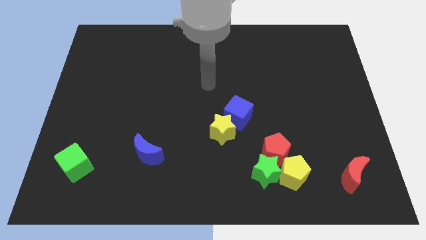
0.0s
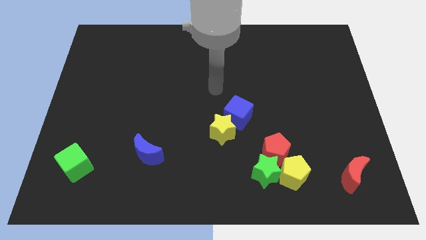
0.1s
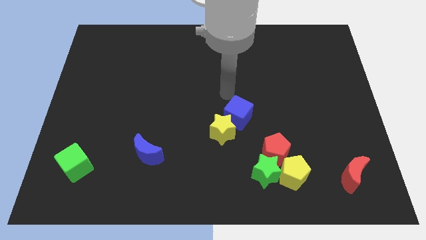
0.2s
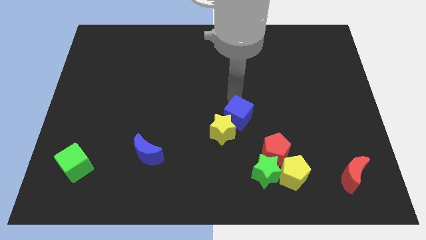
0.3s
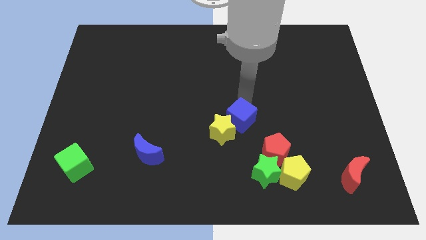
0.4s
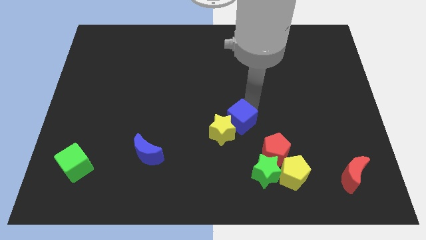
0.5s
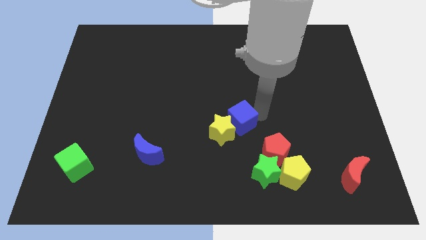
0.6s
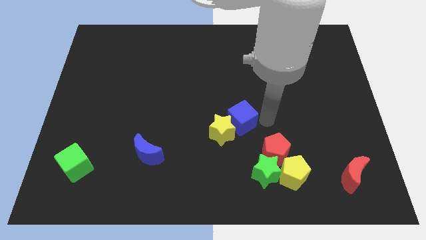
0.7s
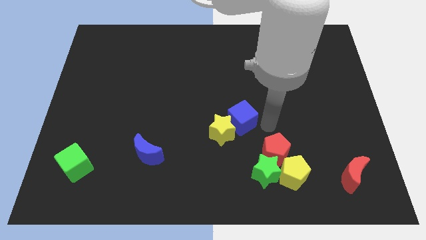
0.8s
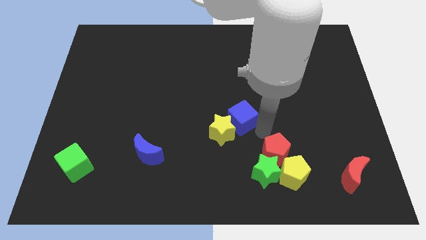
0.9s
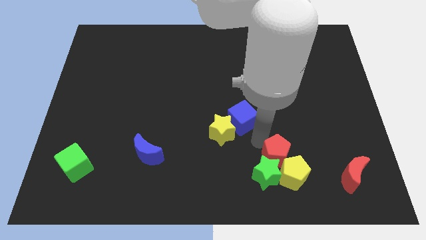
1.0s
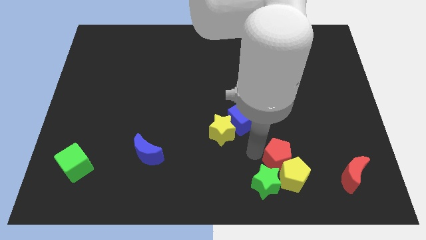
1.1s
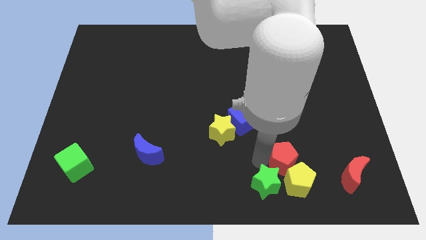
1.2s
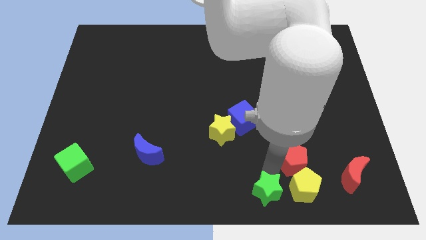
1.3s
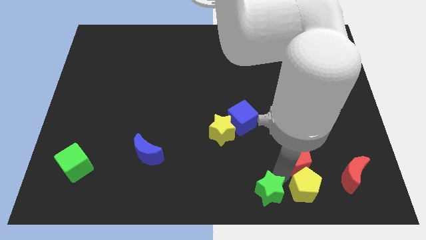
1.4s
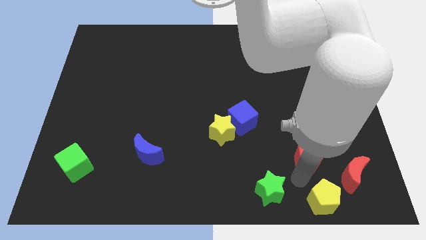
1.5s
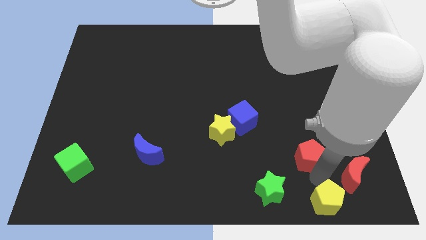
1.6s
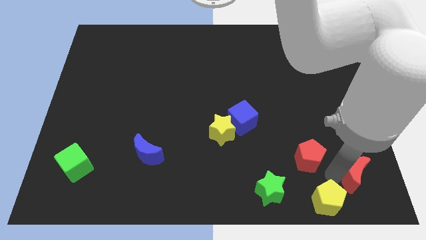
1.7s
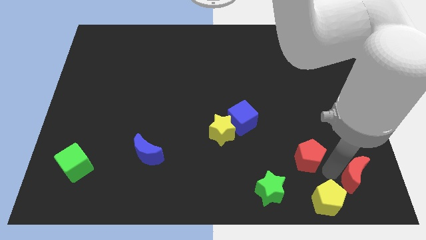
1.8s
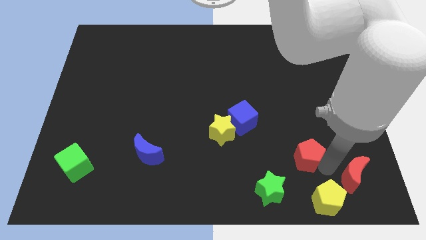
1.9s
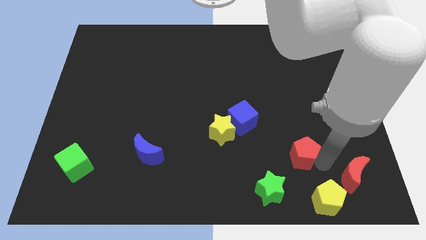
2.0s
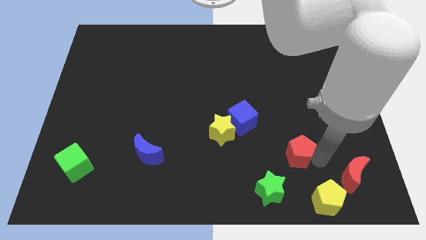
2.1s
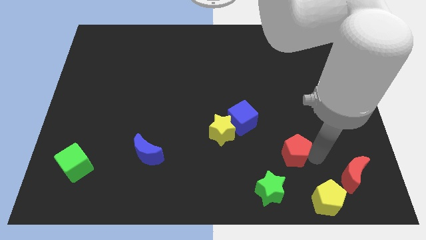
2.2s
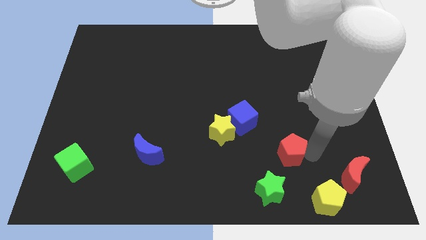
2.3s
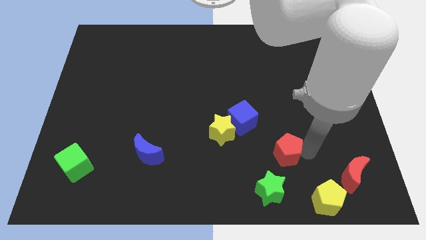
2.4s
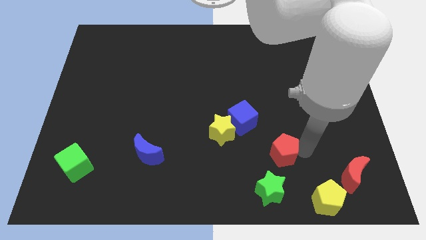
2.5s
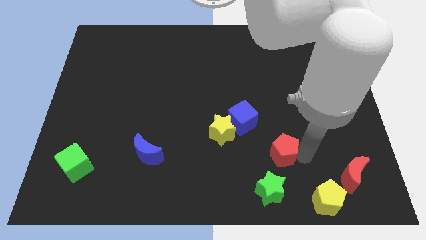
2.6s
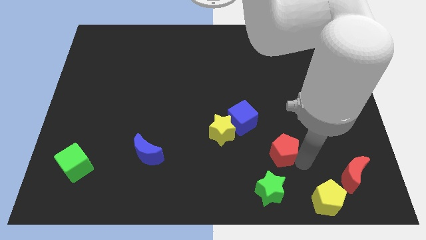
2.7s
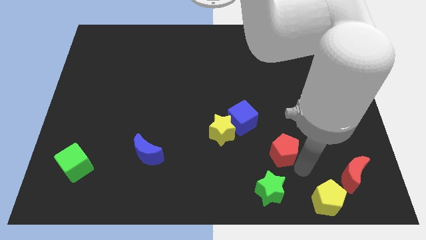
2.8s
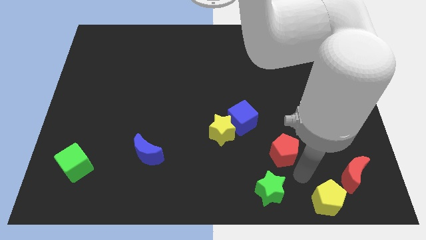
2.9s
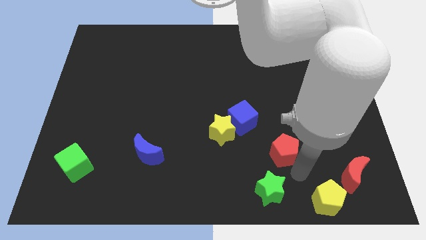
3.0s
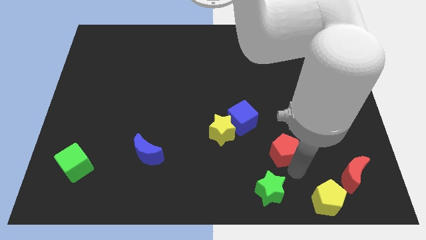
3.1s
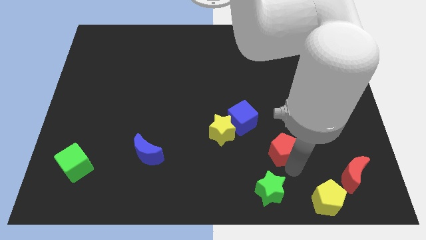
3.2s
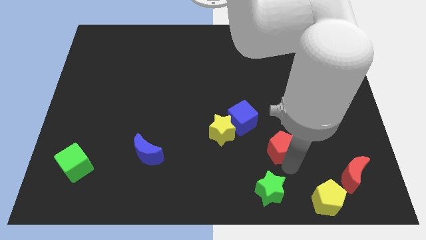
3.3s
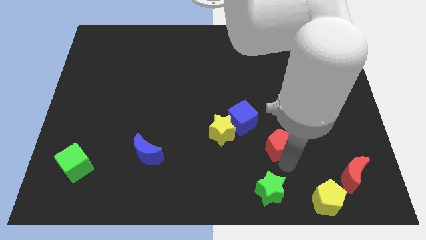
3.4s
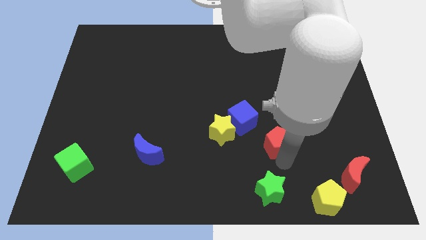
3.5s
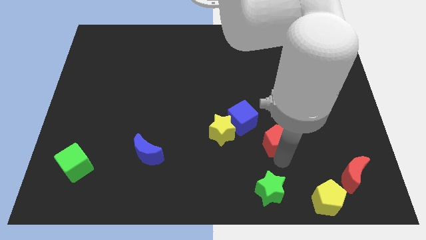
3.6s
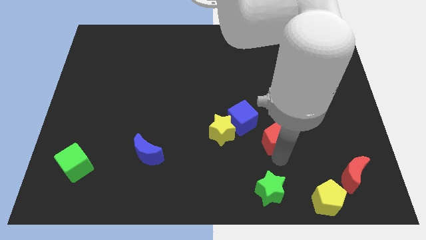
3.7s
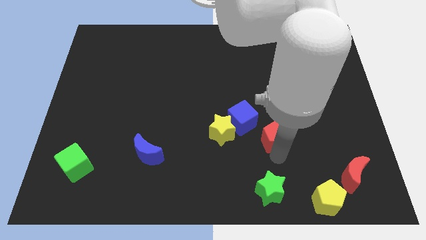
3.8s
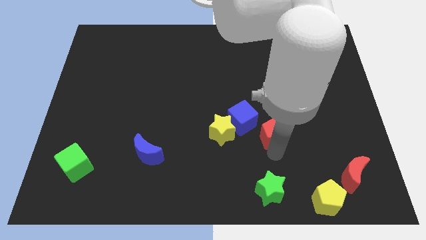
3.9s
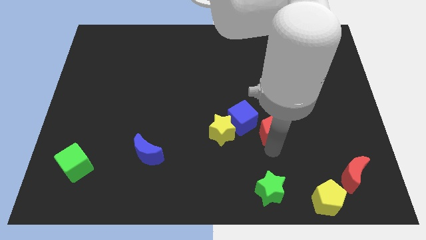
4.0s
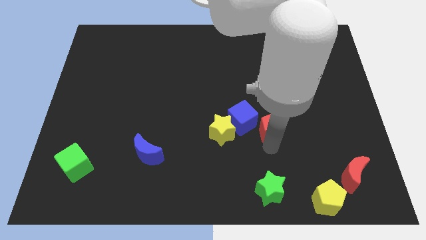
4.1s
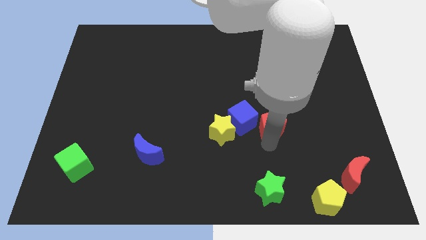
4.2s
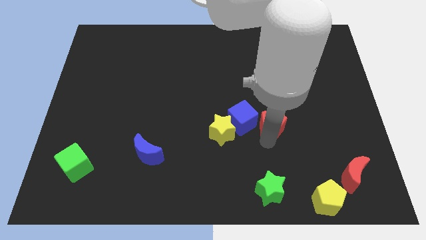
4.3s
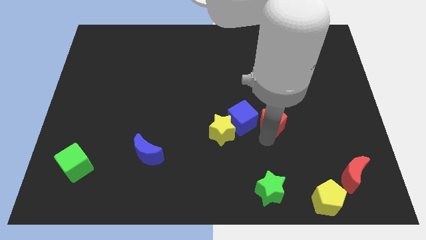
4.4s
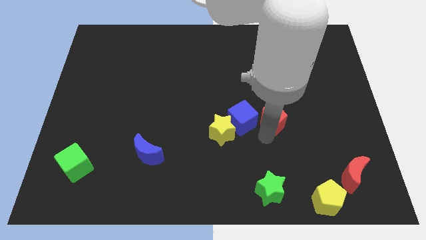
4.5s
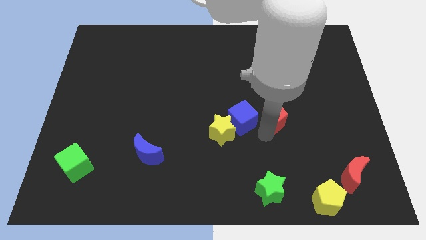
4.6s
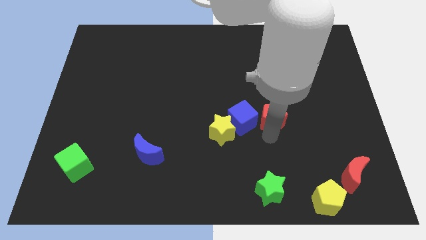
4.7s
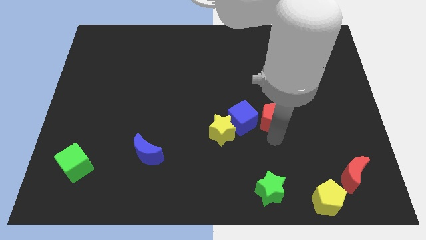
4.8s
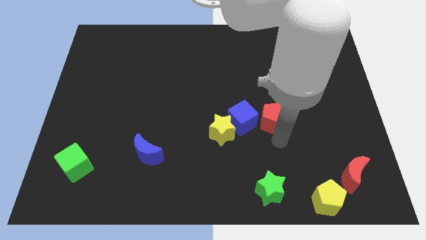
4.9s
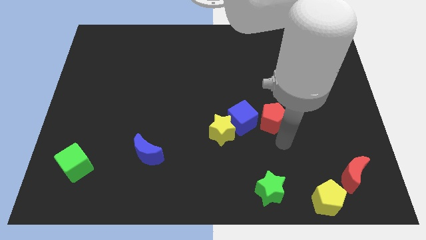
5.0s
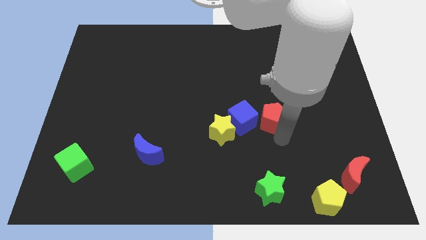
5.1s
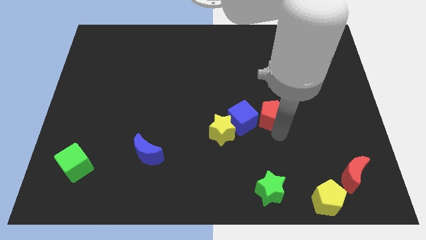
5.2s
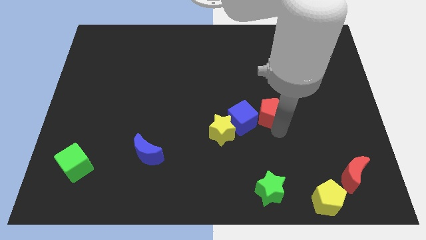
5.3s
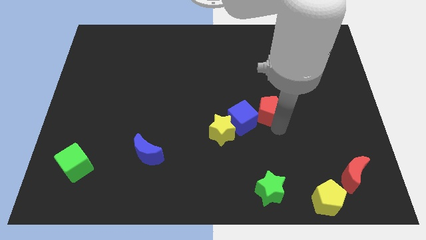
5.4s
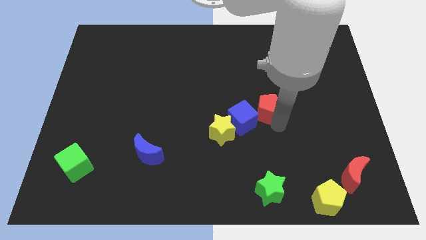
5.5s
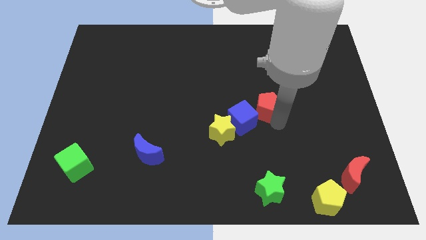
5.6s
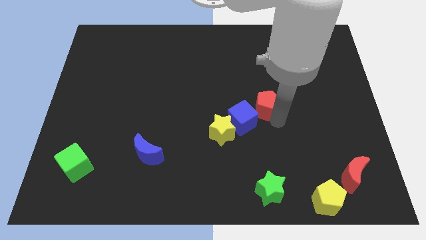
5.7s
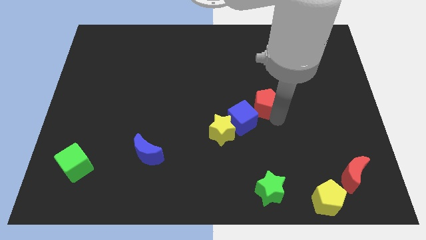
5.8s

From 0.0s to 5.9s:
push the red pentagon a little upwards and then to the left

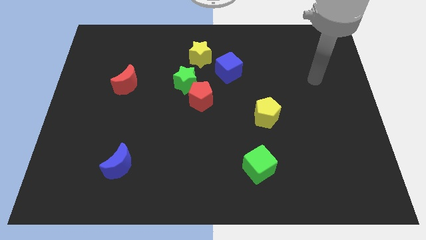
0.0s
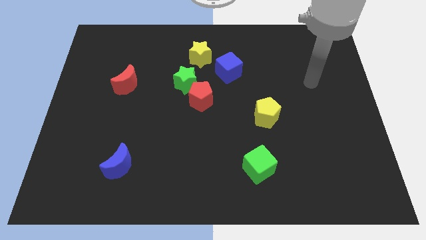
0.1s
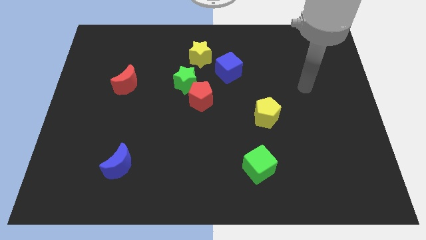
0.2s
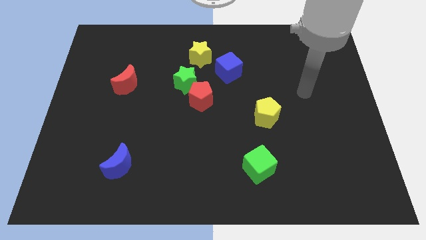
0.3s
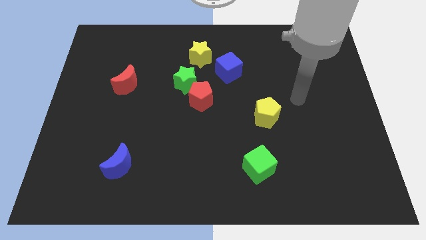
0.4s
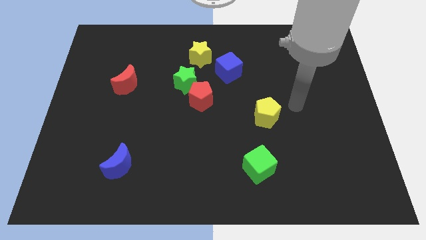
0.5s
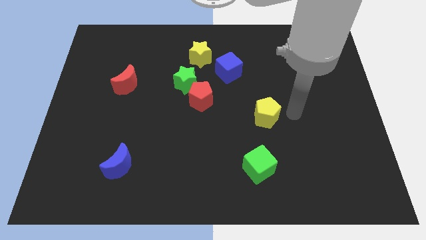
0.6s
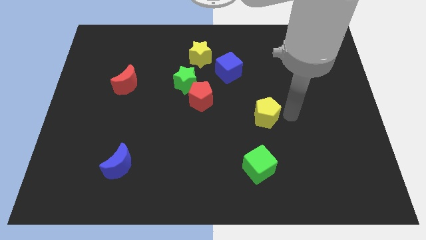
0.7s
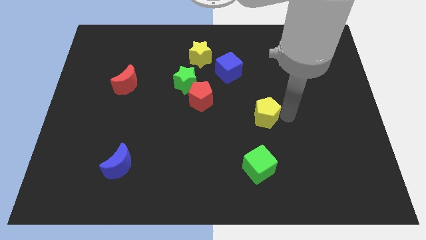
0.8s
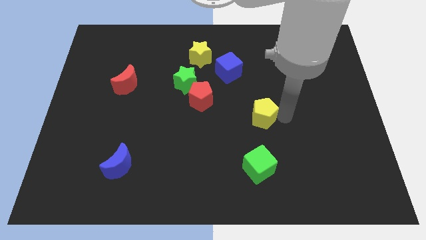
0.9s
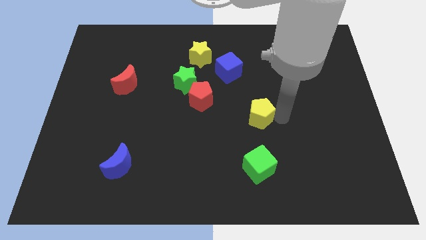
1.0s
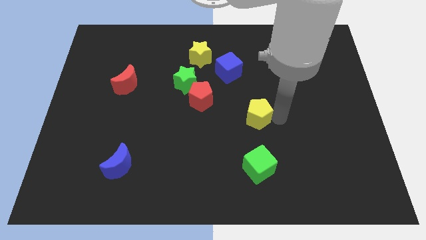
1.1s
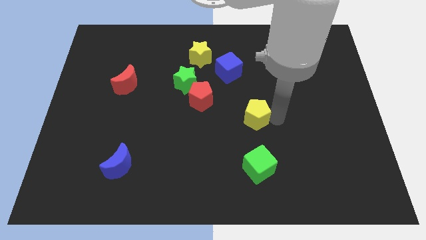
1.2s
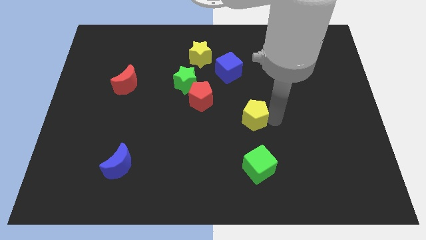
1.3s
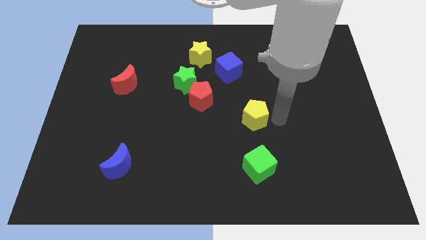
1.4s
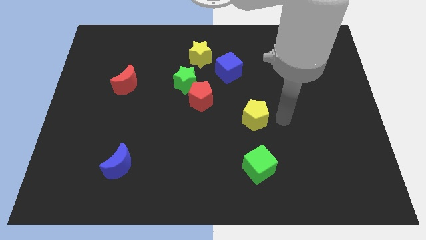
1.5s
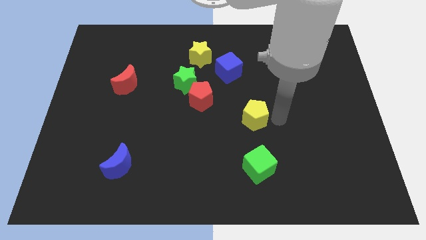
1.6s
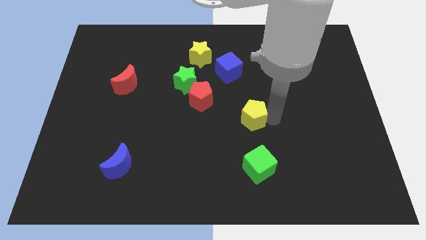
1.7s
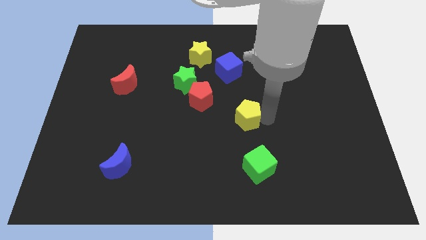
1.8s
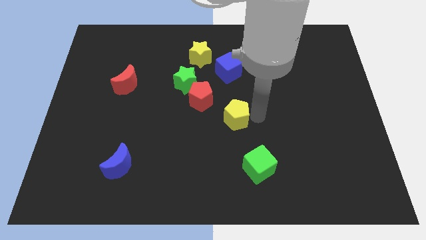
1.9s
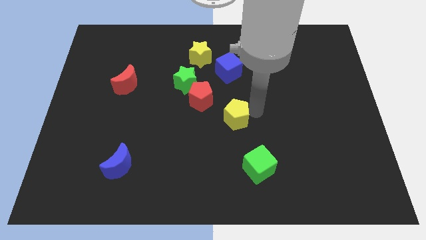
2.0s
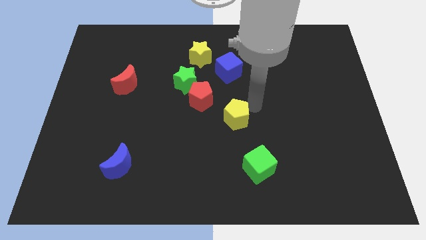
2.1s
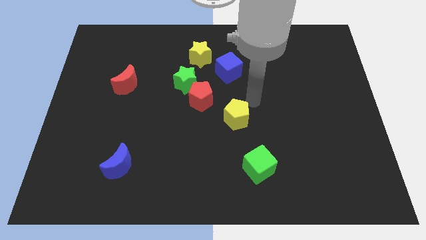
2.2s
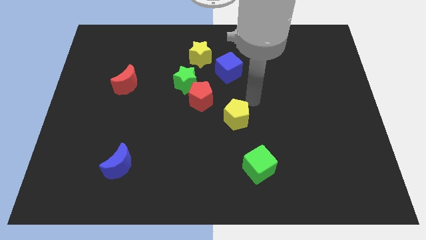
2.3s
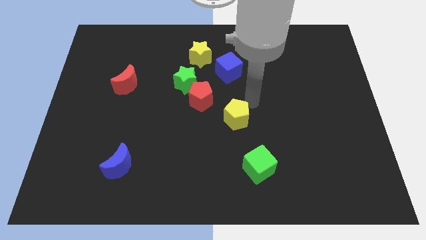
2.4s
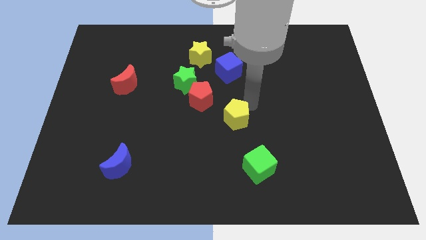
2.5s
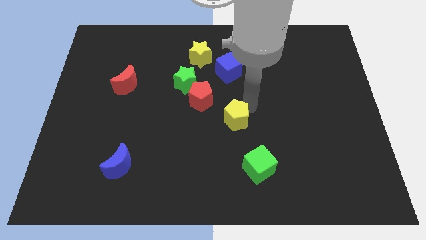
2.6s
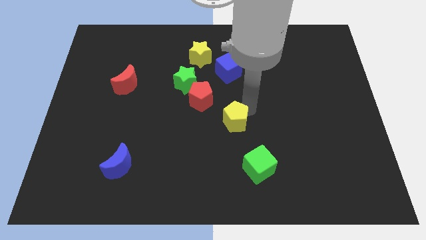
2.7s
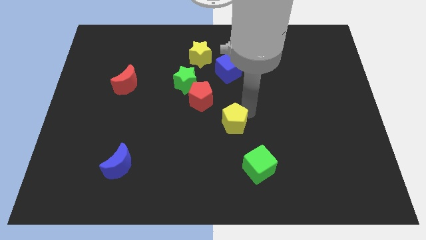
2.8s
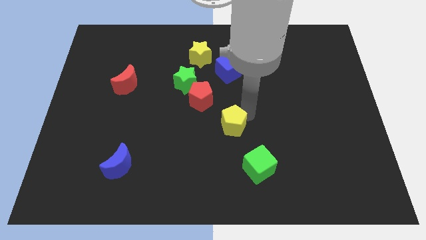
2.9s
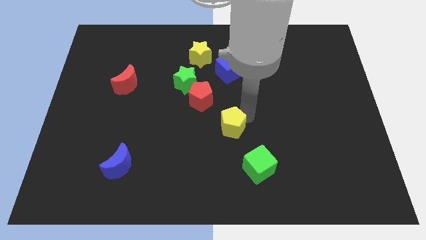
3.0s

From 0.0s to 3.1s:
slightly slide the yellow pentagon down and to the left diagonally
